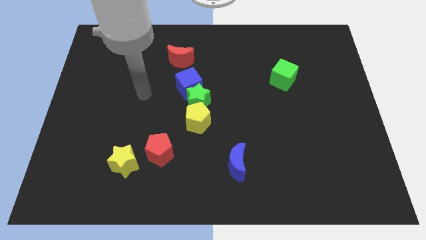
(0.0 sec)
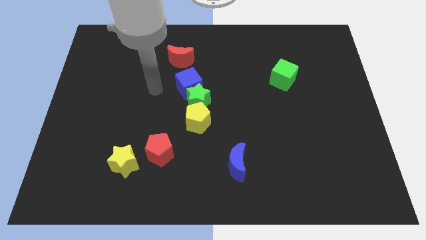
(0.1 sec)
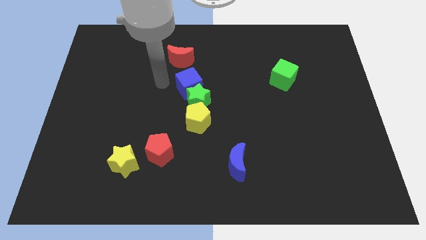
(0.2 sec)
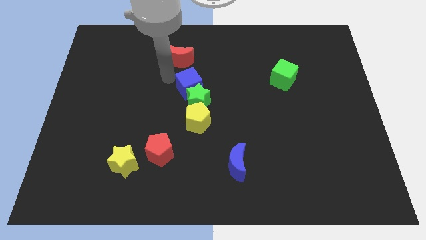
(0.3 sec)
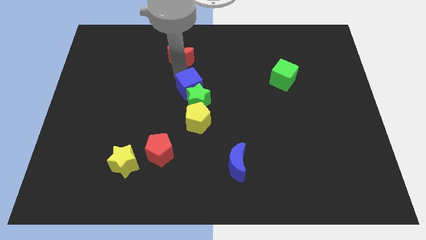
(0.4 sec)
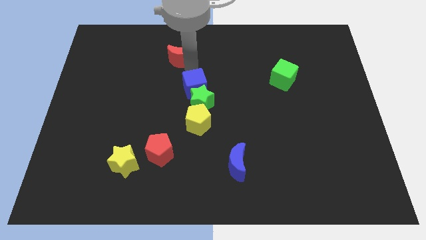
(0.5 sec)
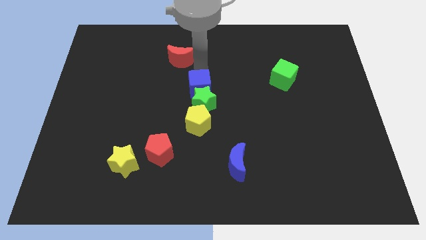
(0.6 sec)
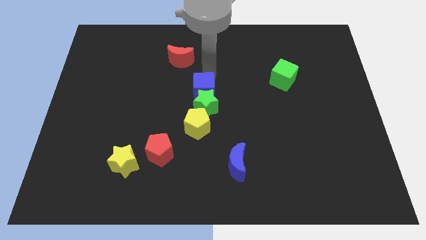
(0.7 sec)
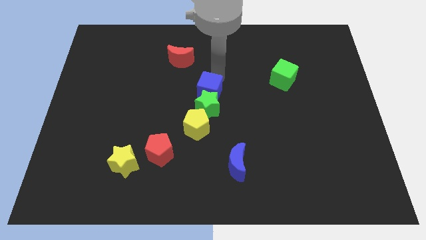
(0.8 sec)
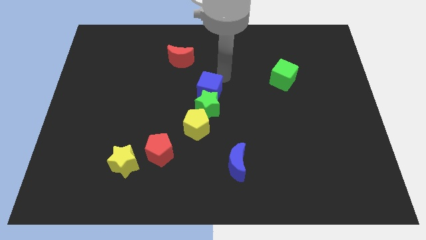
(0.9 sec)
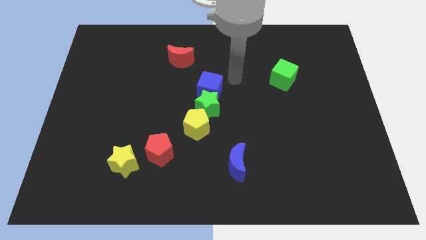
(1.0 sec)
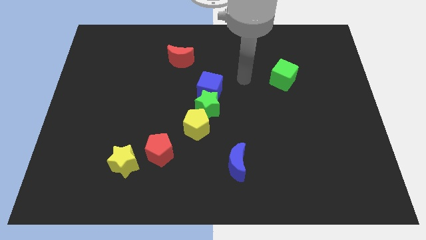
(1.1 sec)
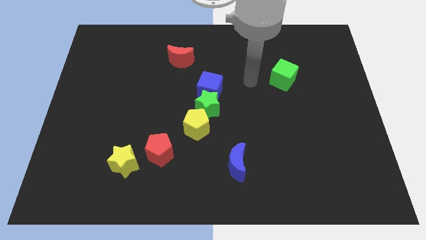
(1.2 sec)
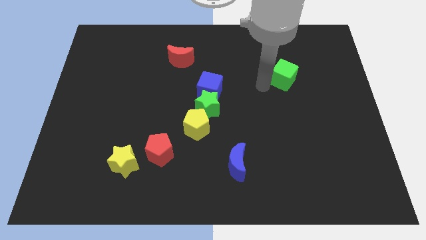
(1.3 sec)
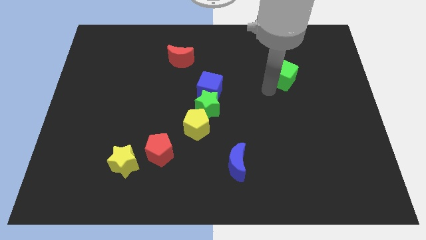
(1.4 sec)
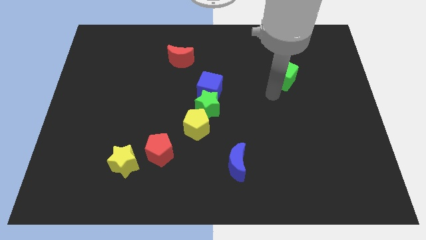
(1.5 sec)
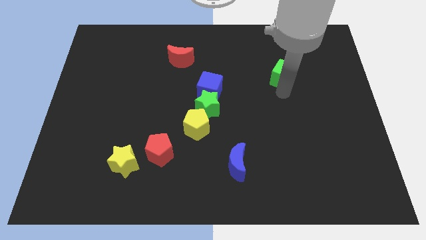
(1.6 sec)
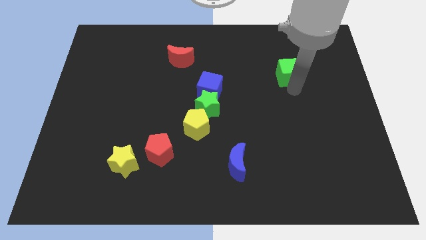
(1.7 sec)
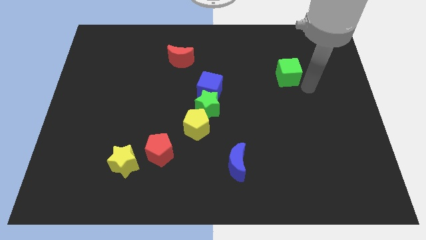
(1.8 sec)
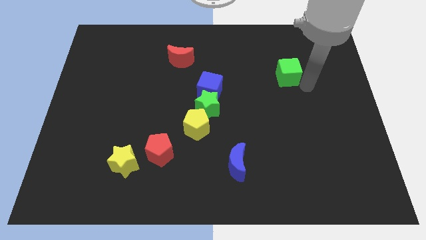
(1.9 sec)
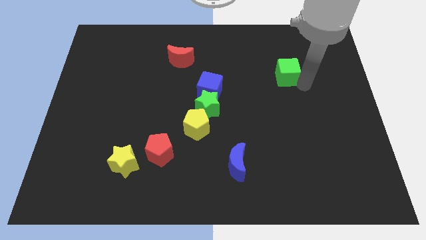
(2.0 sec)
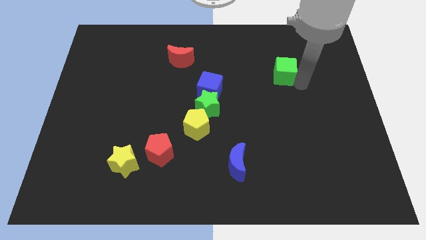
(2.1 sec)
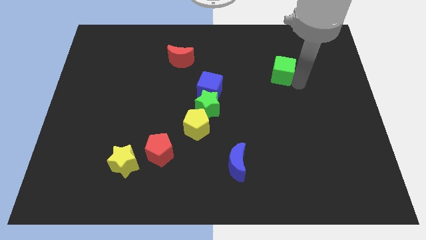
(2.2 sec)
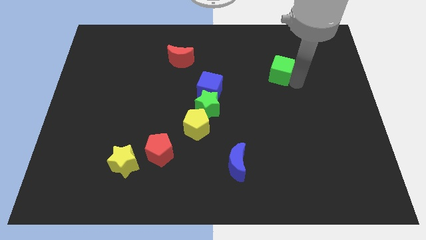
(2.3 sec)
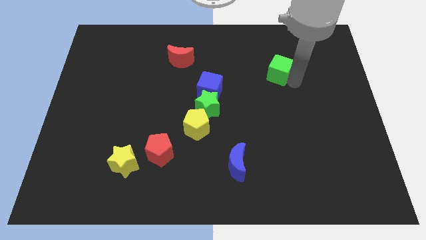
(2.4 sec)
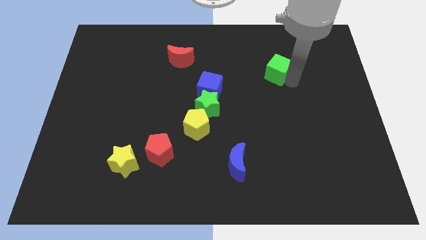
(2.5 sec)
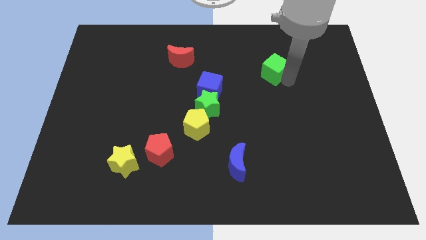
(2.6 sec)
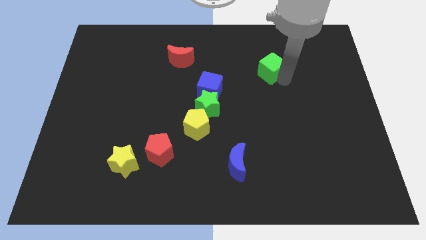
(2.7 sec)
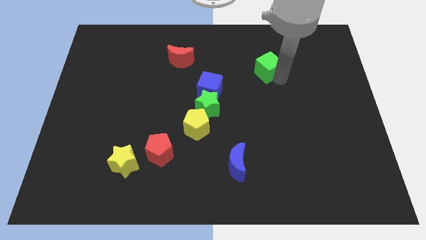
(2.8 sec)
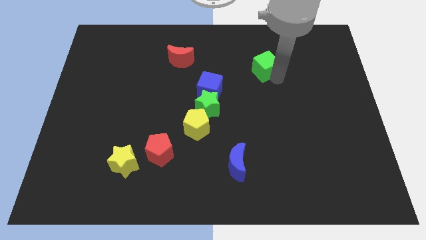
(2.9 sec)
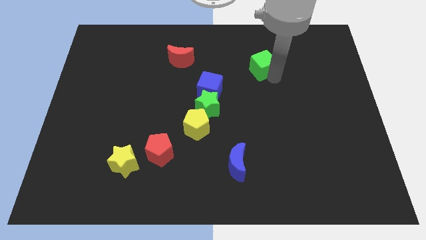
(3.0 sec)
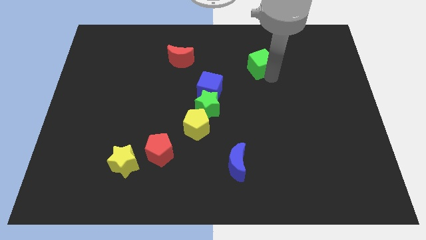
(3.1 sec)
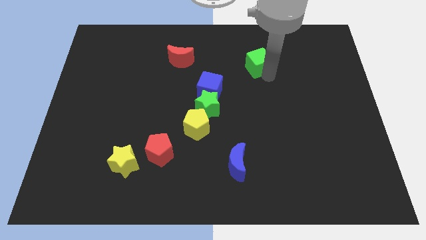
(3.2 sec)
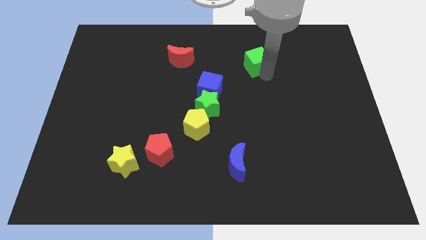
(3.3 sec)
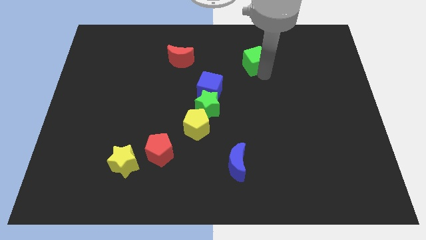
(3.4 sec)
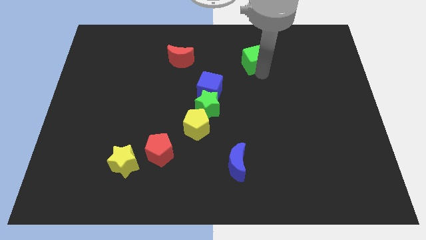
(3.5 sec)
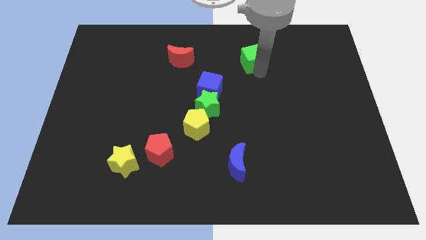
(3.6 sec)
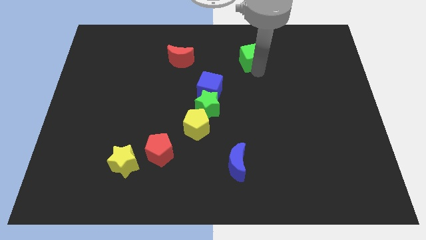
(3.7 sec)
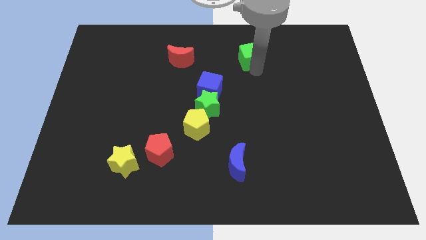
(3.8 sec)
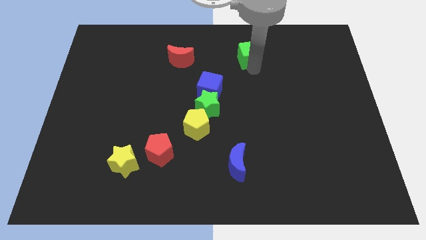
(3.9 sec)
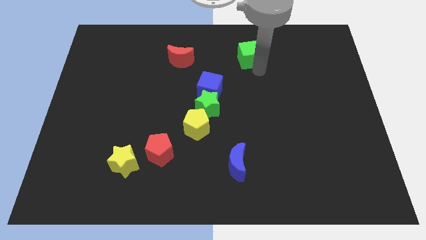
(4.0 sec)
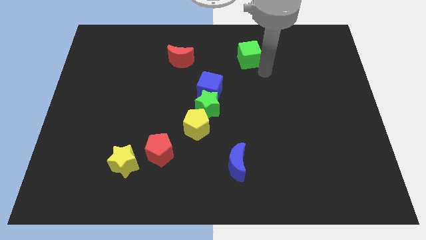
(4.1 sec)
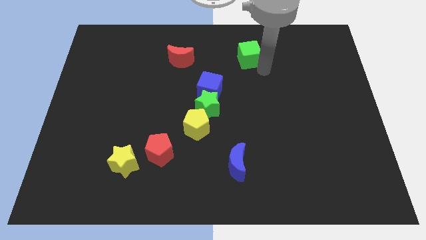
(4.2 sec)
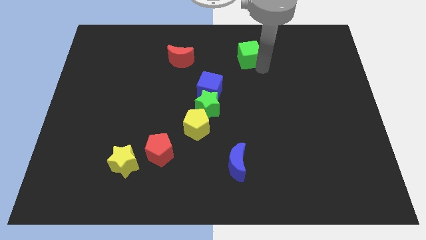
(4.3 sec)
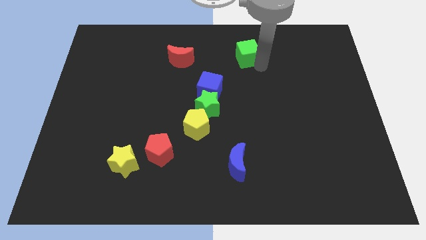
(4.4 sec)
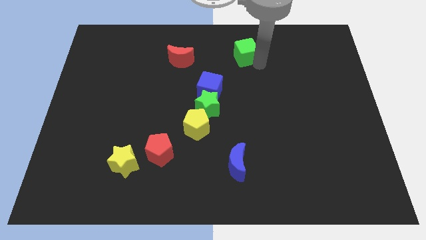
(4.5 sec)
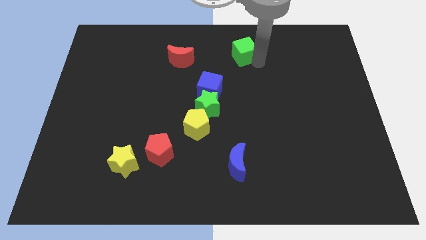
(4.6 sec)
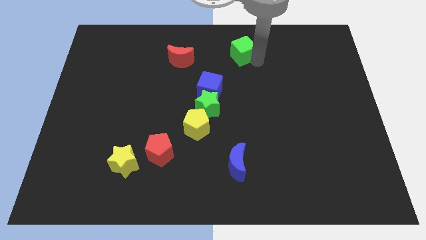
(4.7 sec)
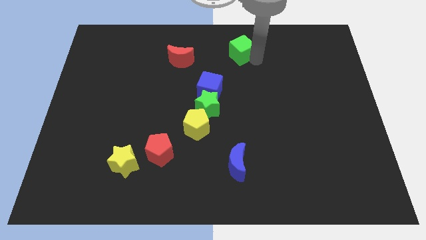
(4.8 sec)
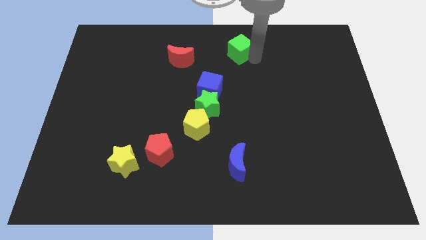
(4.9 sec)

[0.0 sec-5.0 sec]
push the green cube to the top side

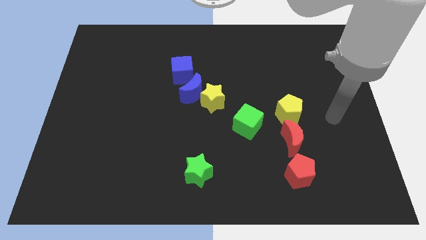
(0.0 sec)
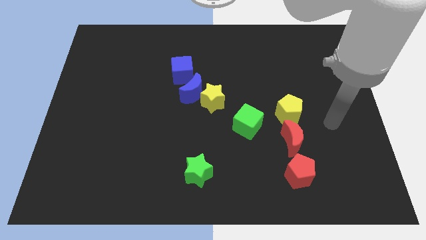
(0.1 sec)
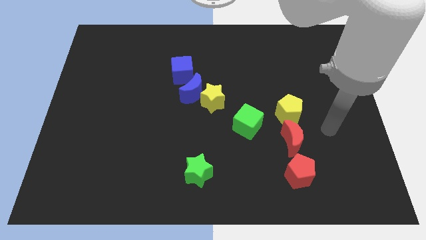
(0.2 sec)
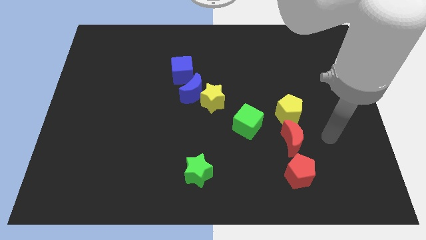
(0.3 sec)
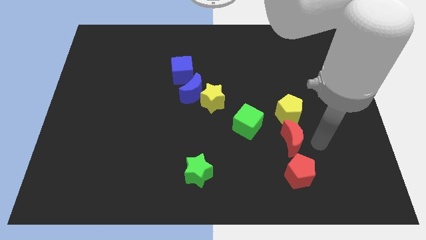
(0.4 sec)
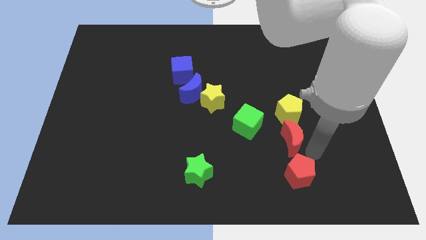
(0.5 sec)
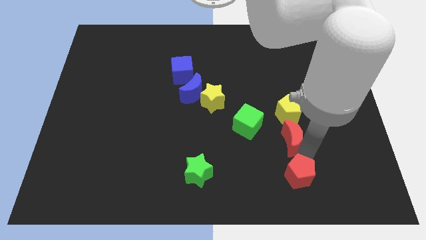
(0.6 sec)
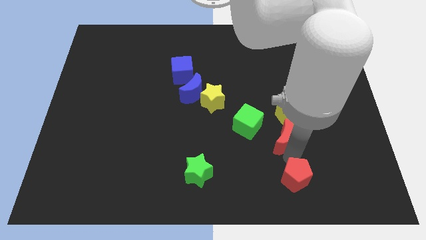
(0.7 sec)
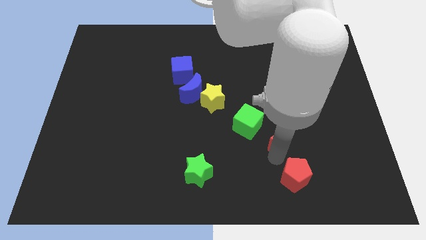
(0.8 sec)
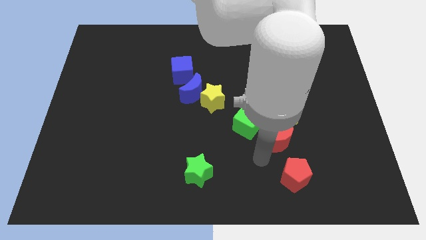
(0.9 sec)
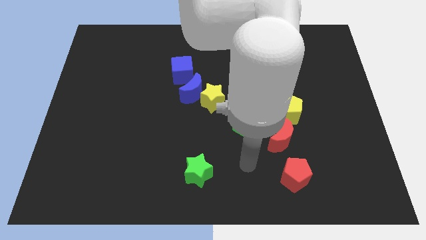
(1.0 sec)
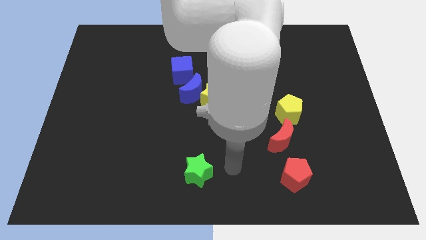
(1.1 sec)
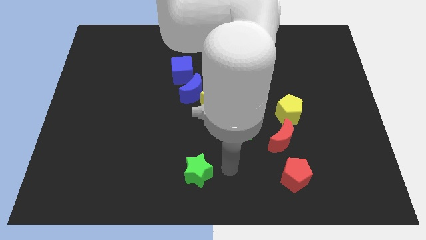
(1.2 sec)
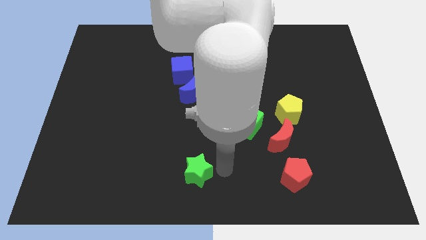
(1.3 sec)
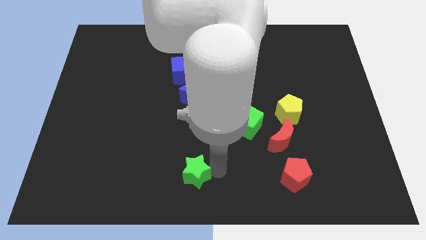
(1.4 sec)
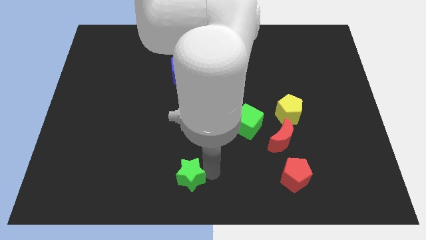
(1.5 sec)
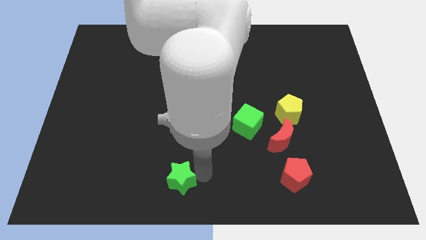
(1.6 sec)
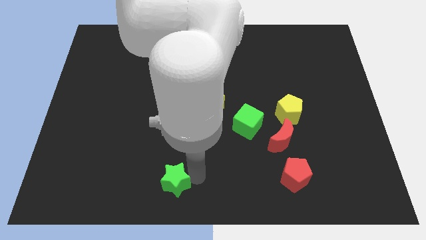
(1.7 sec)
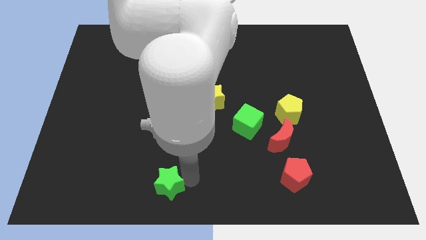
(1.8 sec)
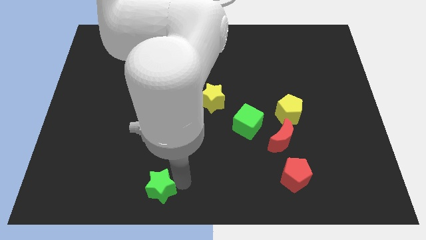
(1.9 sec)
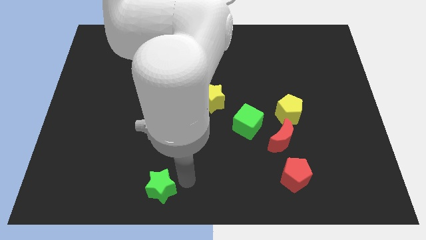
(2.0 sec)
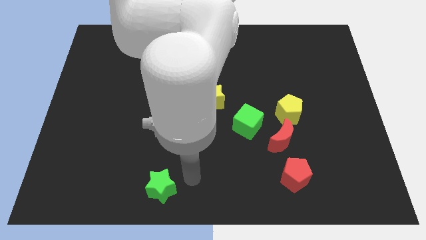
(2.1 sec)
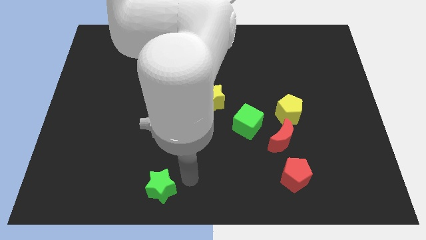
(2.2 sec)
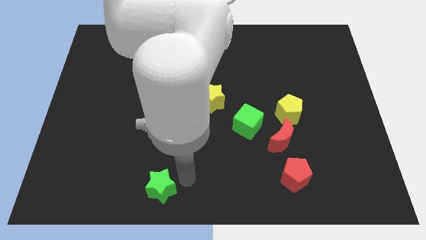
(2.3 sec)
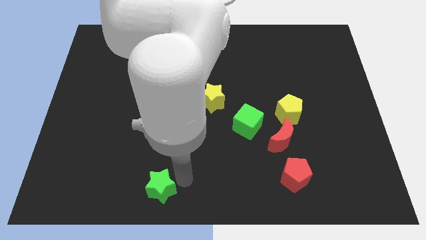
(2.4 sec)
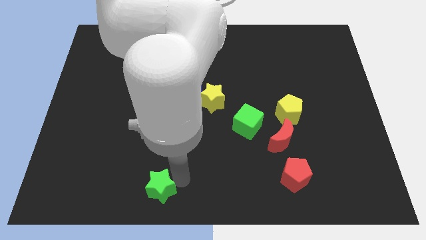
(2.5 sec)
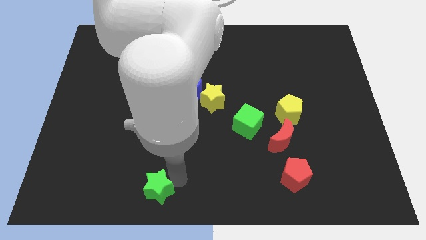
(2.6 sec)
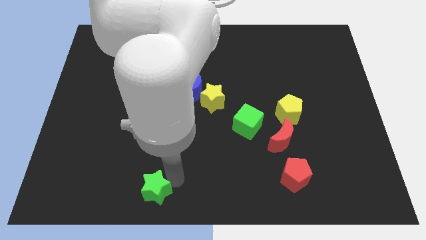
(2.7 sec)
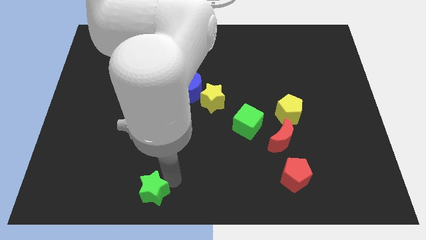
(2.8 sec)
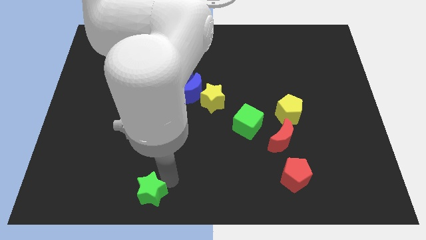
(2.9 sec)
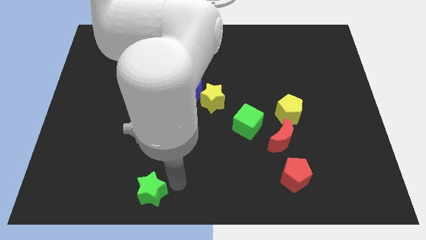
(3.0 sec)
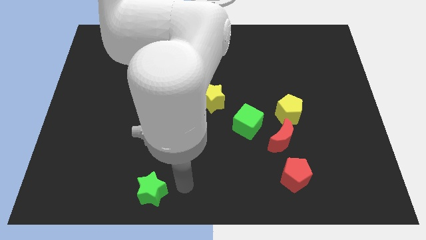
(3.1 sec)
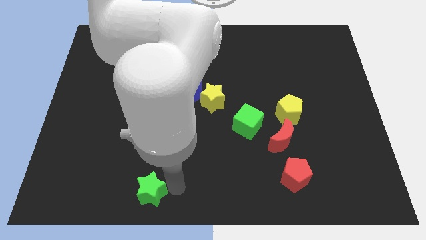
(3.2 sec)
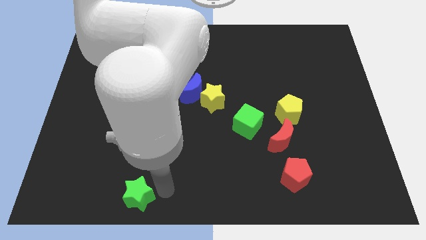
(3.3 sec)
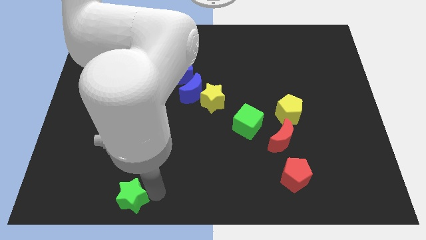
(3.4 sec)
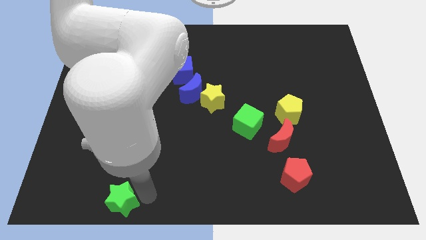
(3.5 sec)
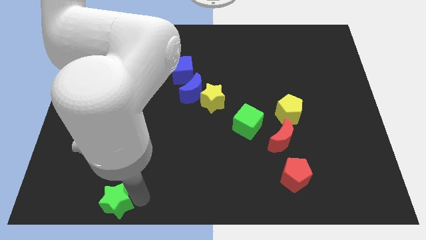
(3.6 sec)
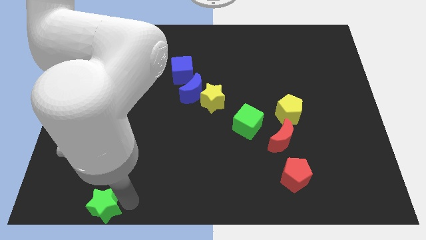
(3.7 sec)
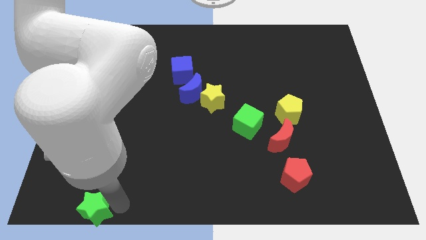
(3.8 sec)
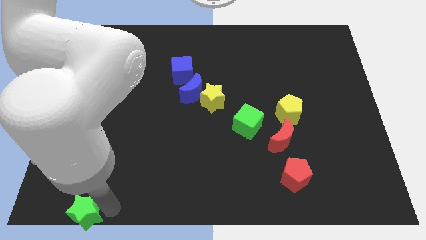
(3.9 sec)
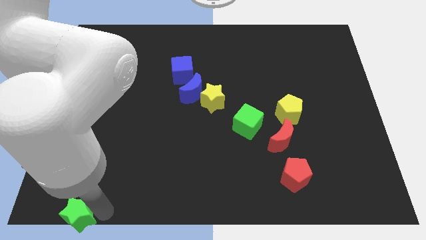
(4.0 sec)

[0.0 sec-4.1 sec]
slide the green star to the bottom left
